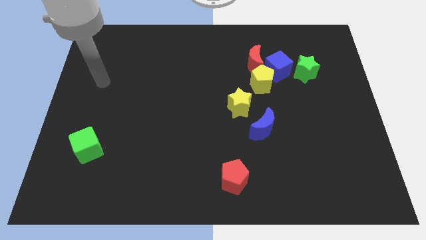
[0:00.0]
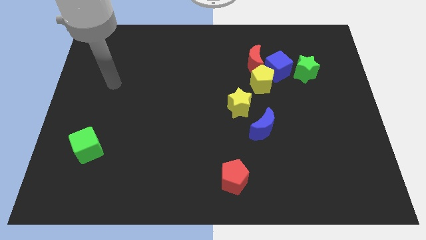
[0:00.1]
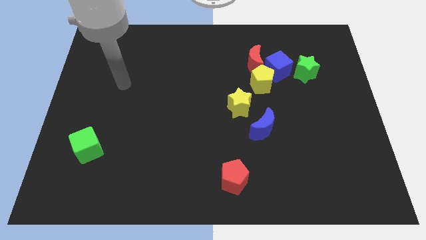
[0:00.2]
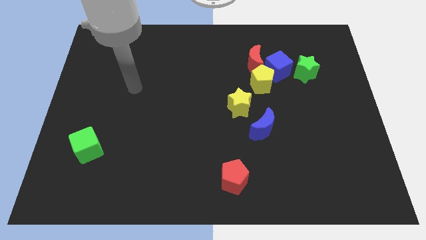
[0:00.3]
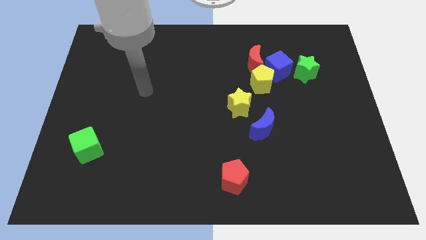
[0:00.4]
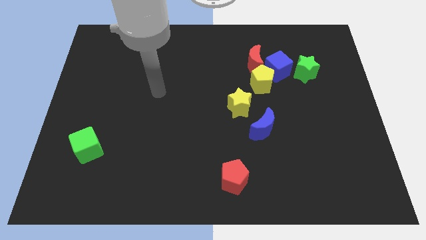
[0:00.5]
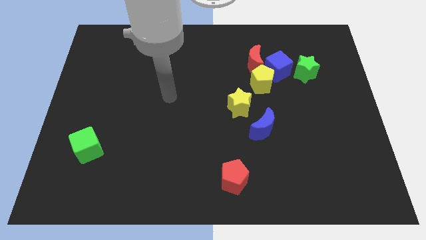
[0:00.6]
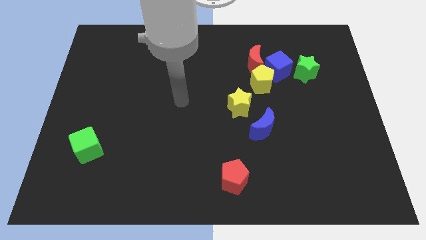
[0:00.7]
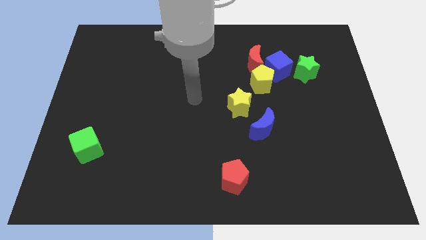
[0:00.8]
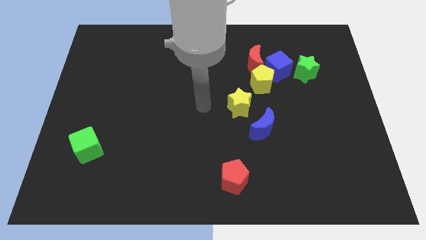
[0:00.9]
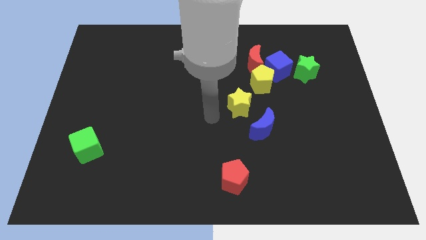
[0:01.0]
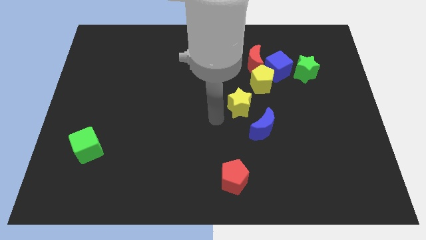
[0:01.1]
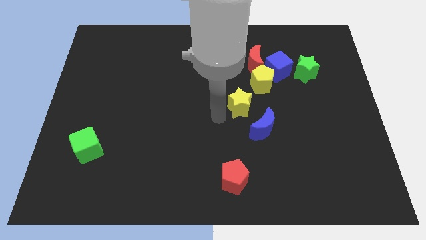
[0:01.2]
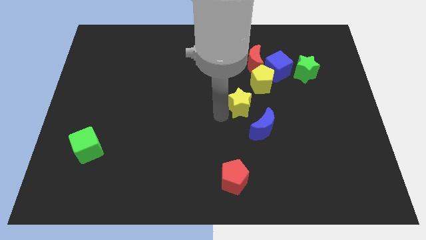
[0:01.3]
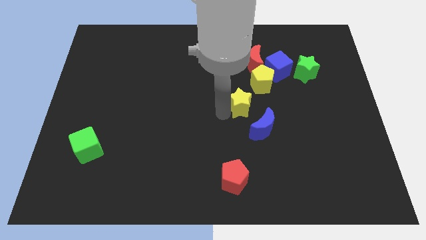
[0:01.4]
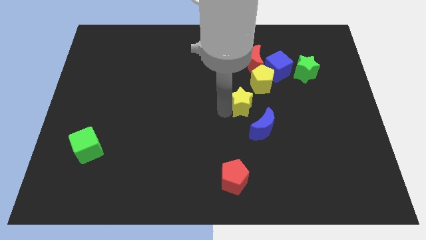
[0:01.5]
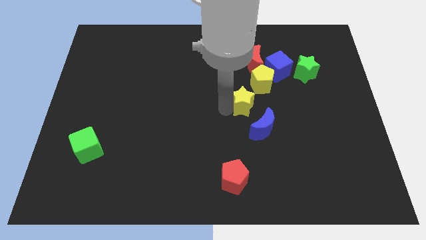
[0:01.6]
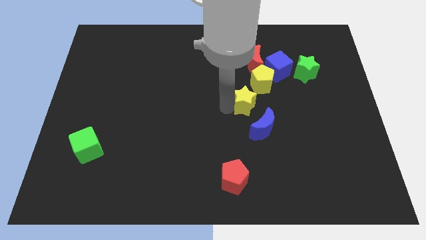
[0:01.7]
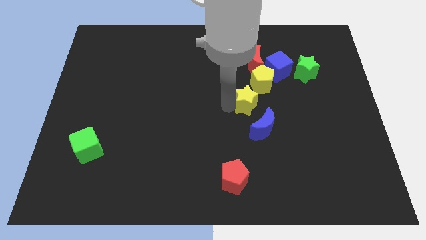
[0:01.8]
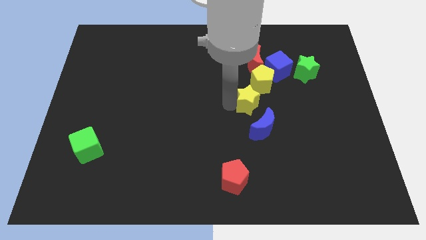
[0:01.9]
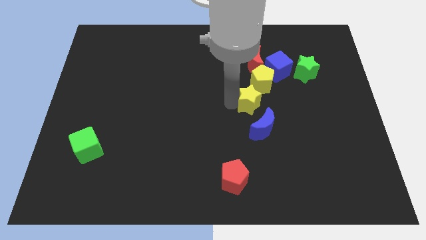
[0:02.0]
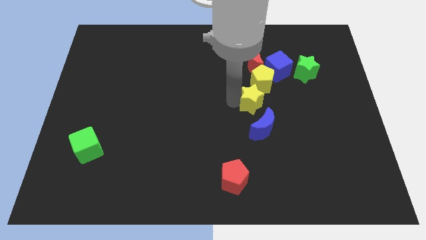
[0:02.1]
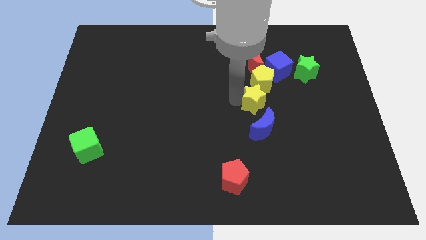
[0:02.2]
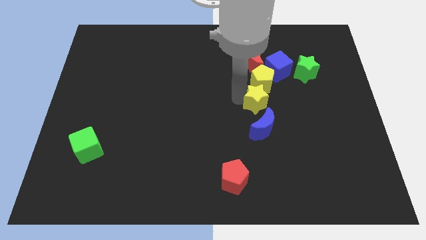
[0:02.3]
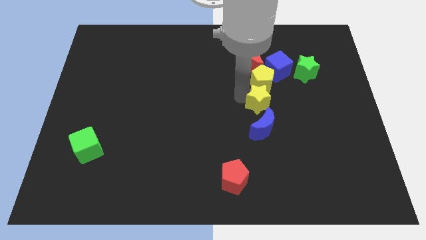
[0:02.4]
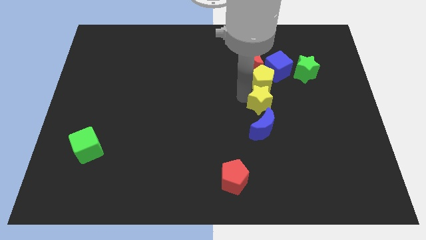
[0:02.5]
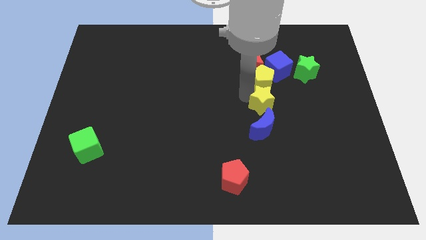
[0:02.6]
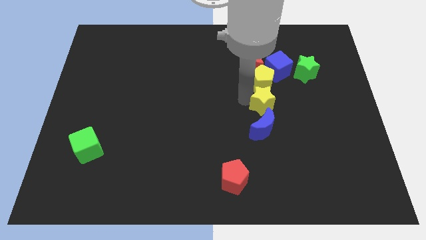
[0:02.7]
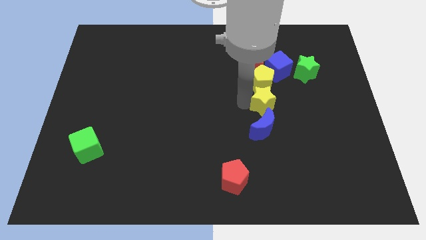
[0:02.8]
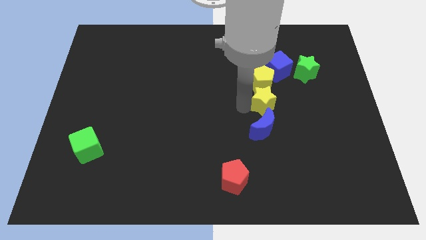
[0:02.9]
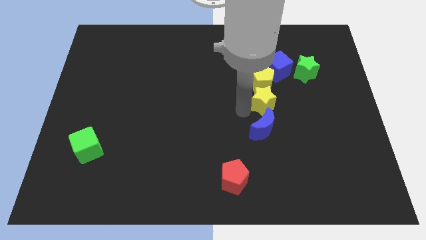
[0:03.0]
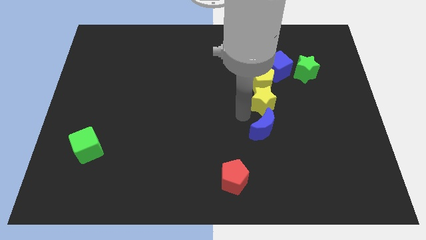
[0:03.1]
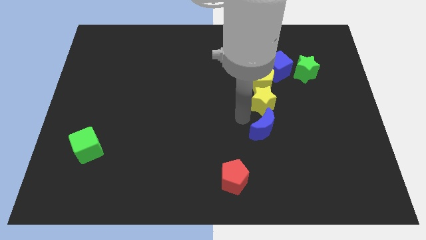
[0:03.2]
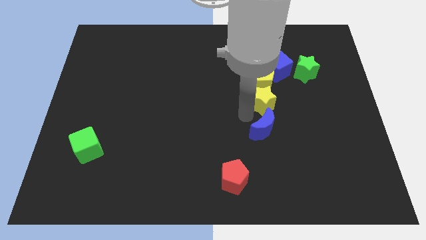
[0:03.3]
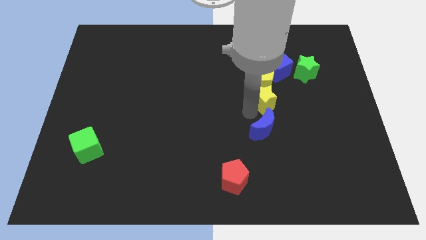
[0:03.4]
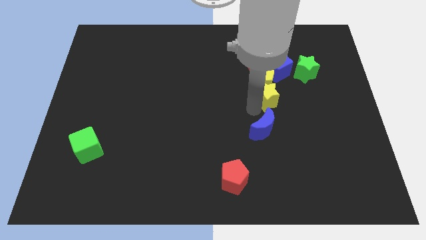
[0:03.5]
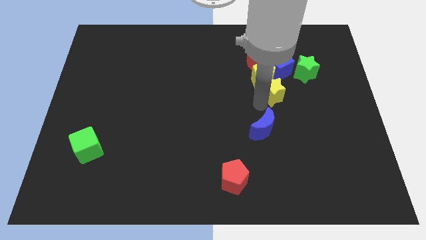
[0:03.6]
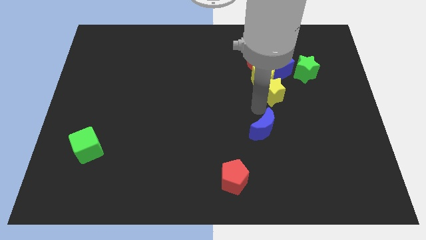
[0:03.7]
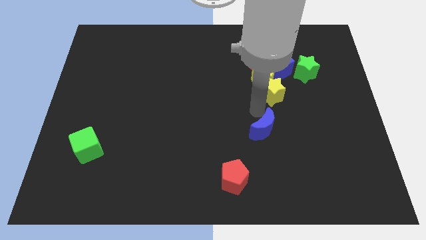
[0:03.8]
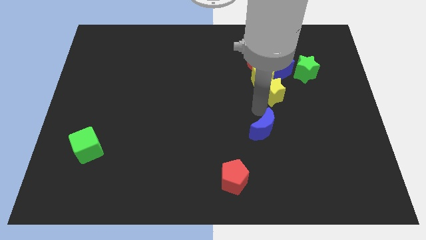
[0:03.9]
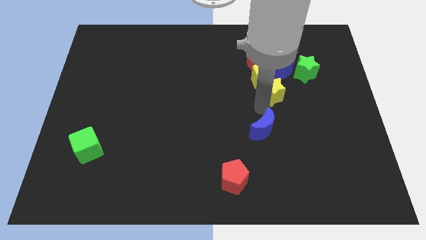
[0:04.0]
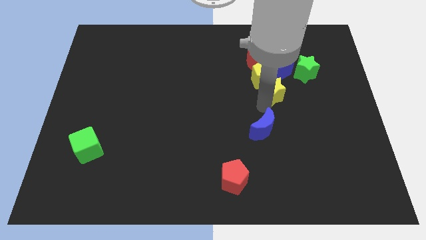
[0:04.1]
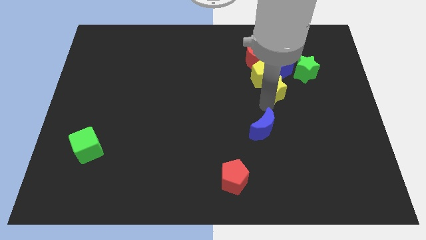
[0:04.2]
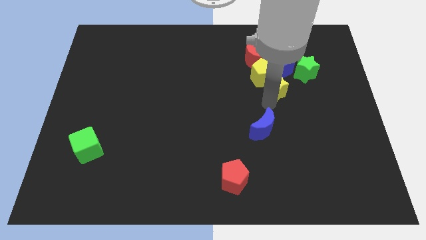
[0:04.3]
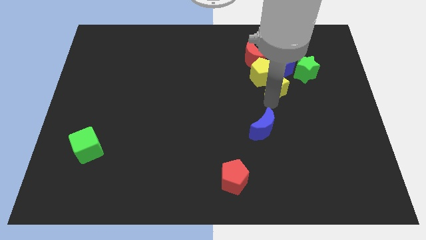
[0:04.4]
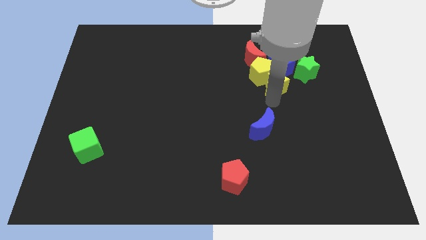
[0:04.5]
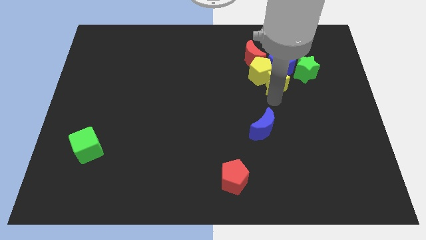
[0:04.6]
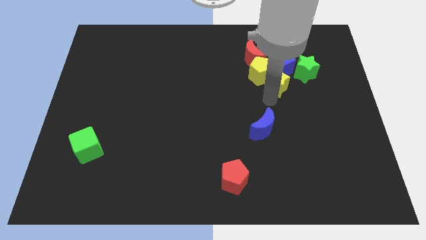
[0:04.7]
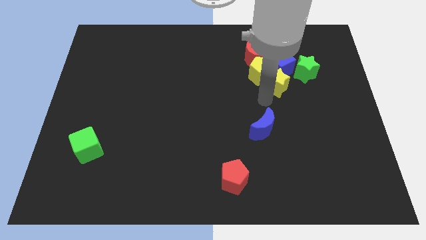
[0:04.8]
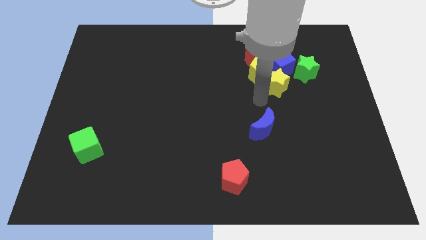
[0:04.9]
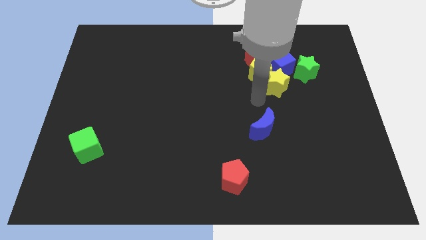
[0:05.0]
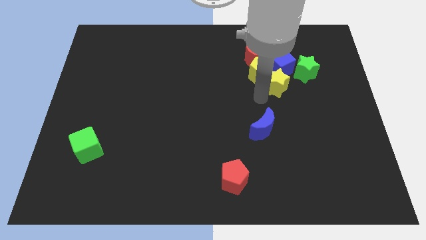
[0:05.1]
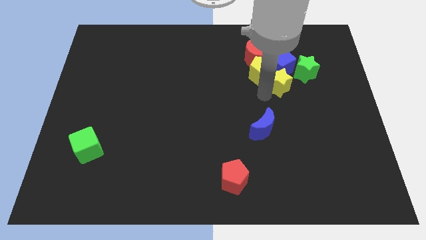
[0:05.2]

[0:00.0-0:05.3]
push the yellow star to the blue cube

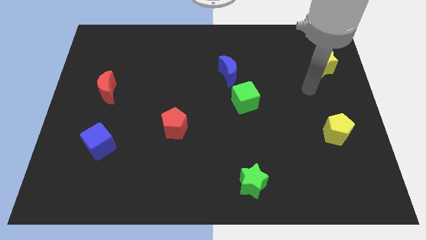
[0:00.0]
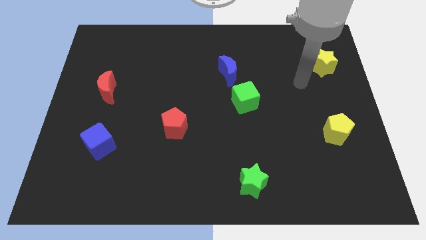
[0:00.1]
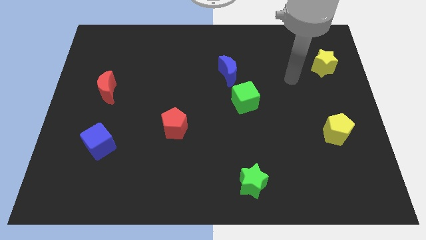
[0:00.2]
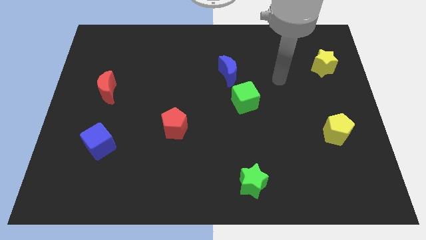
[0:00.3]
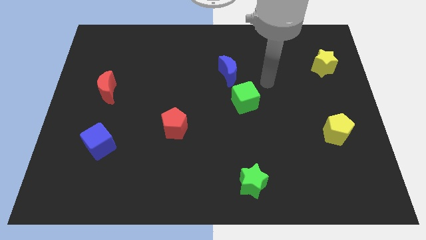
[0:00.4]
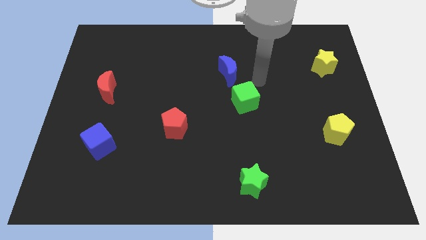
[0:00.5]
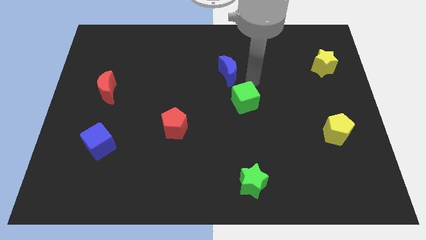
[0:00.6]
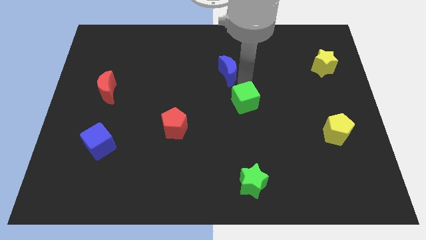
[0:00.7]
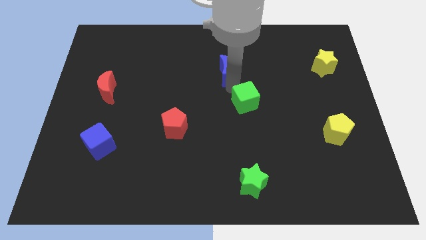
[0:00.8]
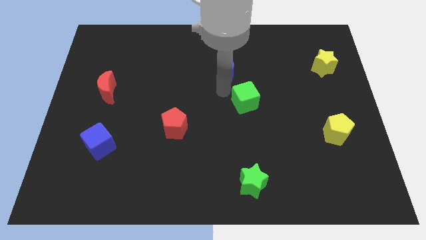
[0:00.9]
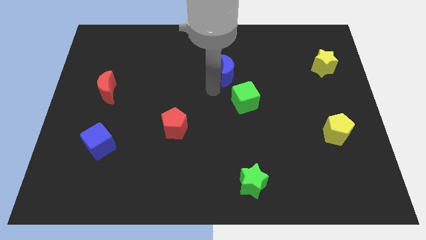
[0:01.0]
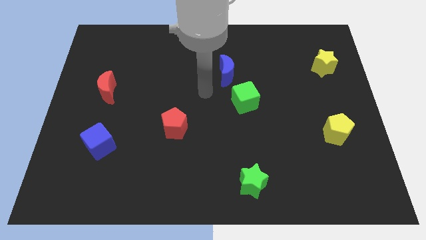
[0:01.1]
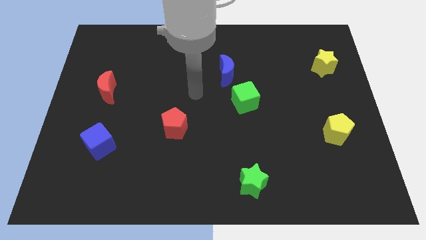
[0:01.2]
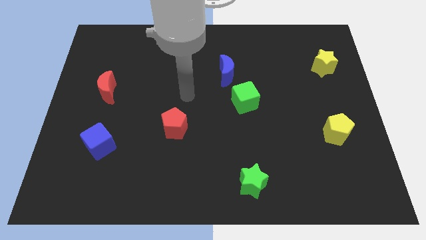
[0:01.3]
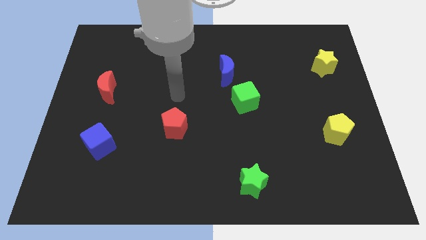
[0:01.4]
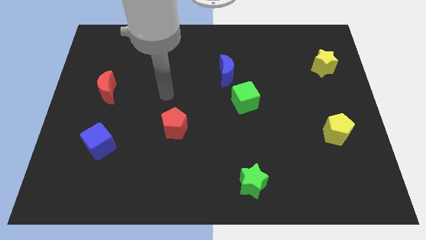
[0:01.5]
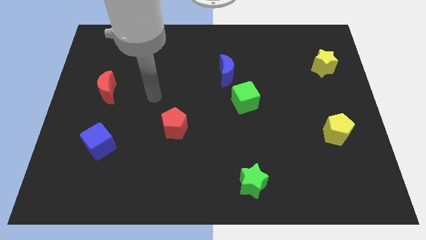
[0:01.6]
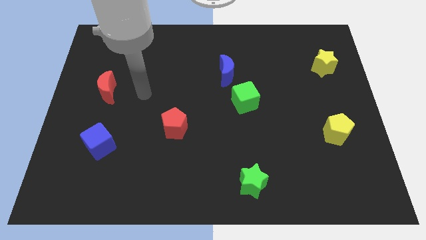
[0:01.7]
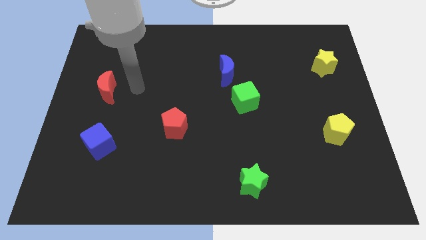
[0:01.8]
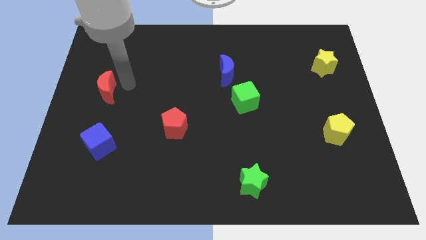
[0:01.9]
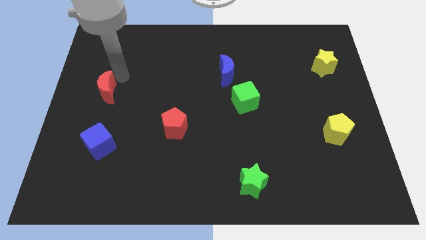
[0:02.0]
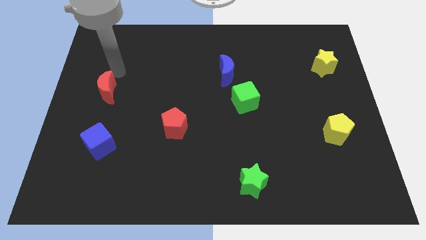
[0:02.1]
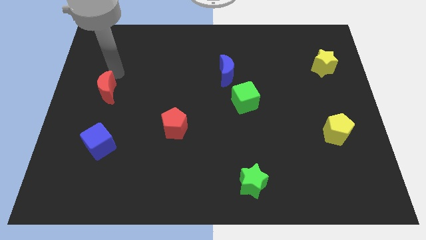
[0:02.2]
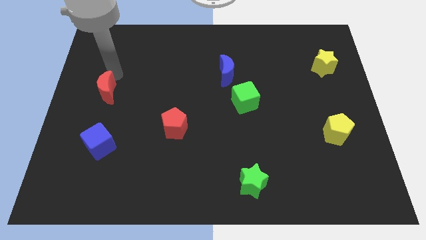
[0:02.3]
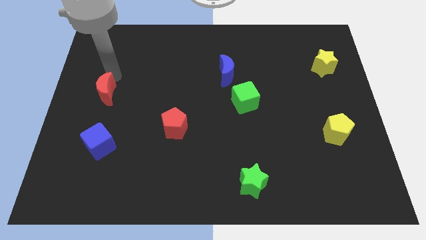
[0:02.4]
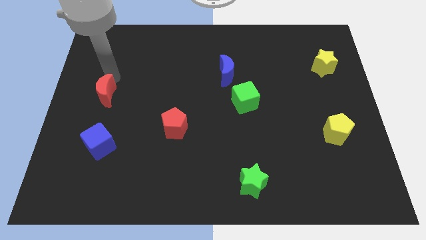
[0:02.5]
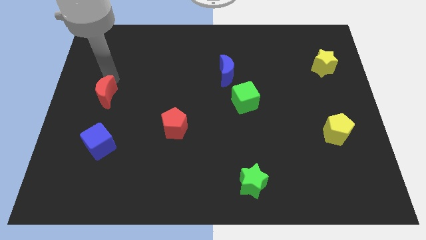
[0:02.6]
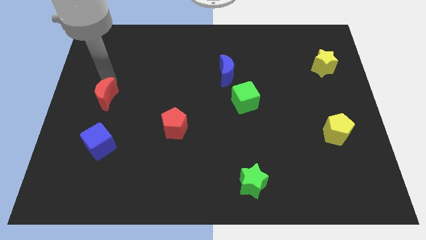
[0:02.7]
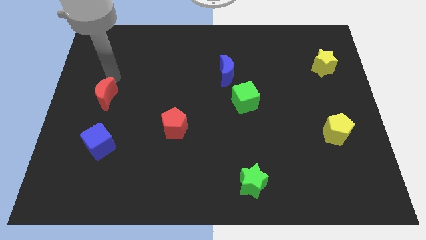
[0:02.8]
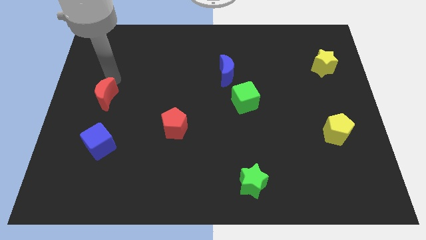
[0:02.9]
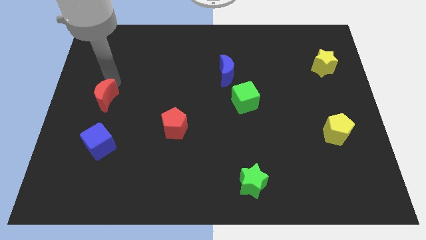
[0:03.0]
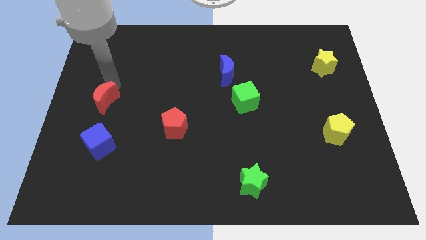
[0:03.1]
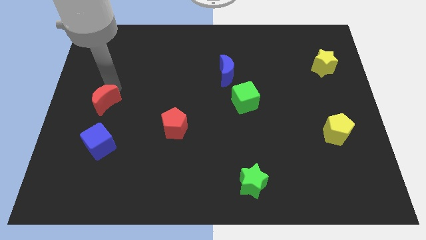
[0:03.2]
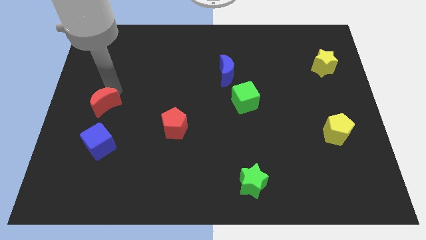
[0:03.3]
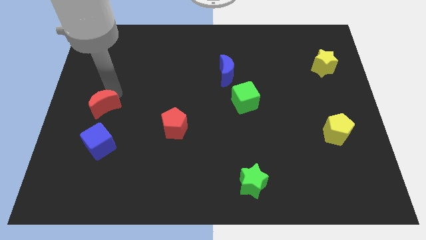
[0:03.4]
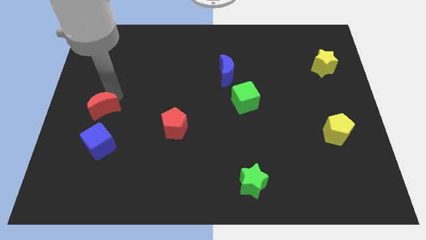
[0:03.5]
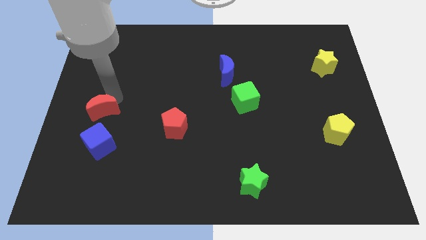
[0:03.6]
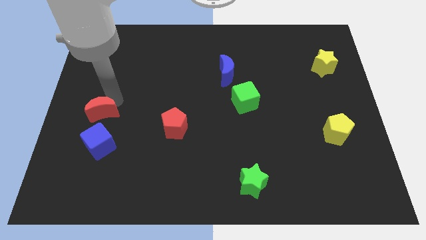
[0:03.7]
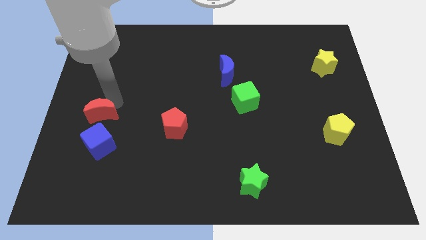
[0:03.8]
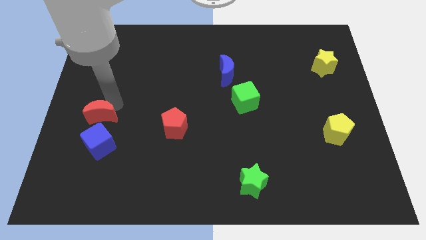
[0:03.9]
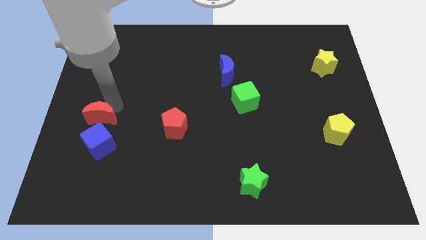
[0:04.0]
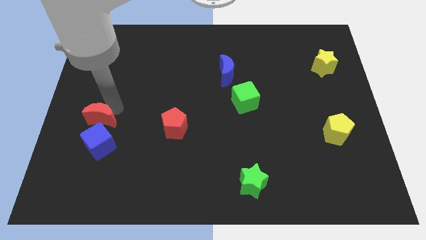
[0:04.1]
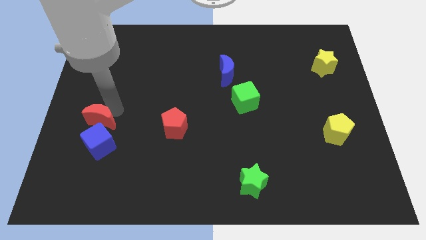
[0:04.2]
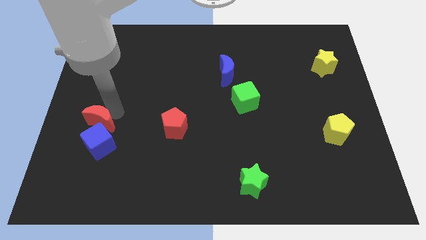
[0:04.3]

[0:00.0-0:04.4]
push the red moon close to the blue cube
